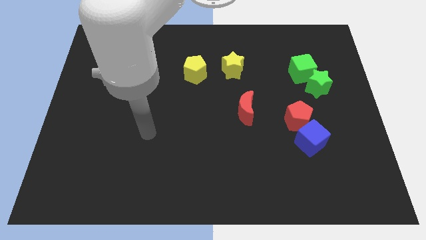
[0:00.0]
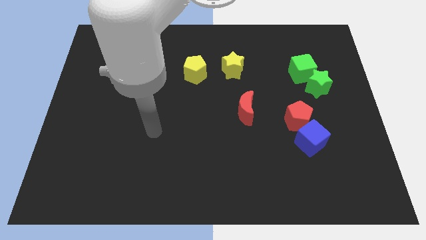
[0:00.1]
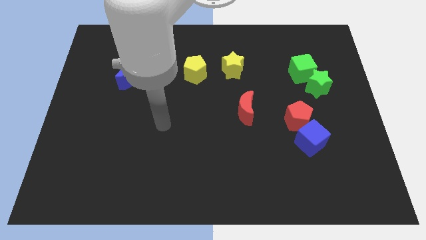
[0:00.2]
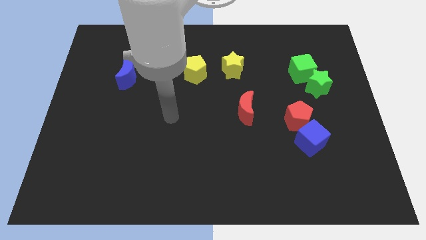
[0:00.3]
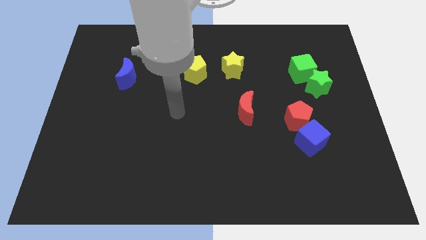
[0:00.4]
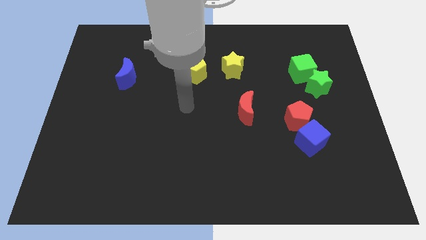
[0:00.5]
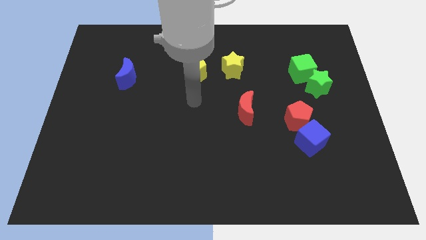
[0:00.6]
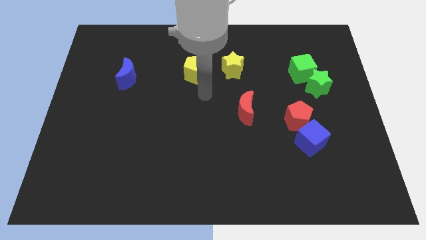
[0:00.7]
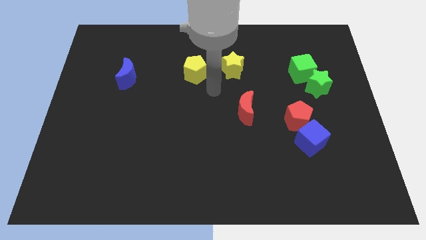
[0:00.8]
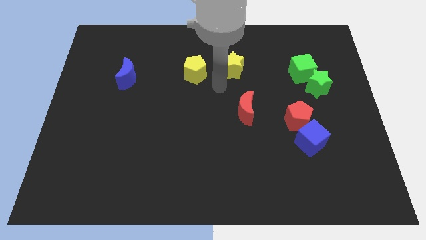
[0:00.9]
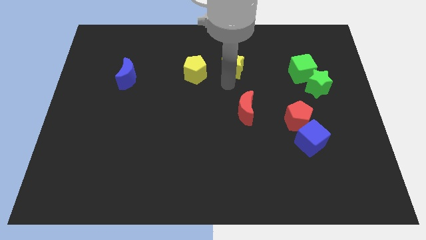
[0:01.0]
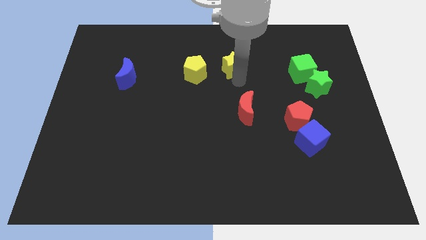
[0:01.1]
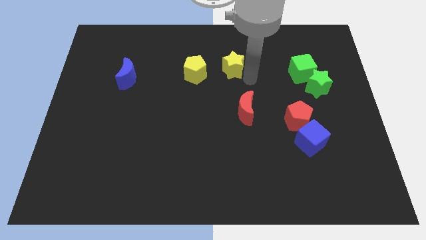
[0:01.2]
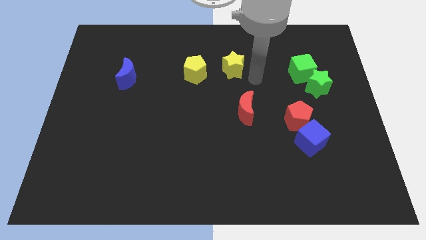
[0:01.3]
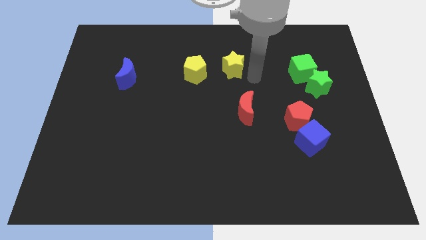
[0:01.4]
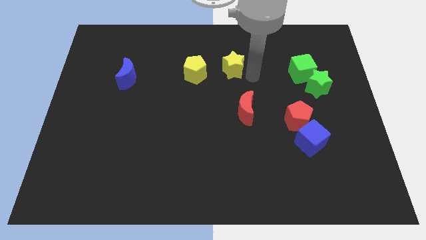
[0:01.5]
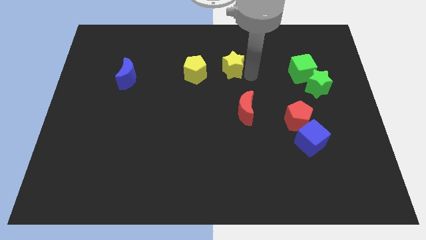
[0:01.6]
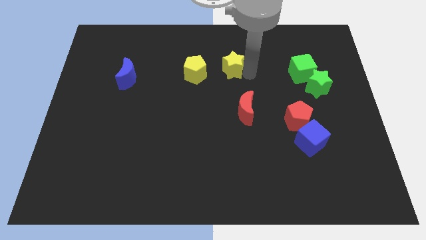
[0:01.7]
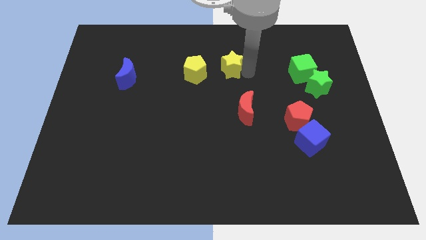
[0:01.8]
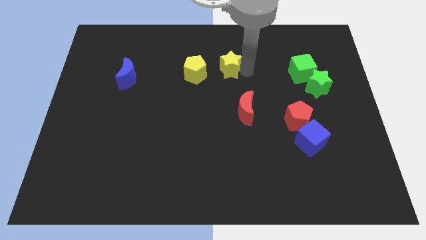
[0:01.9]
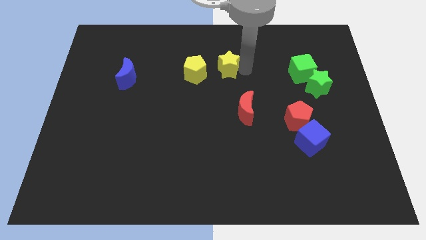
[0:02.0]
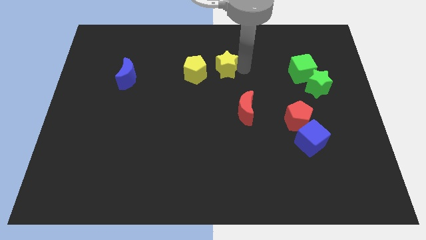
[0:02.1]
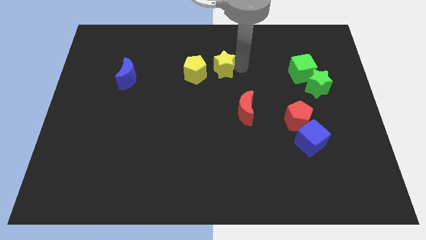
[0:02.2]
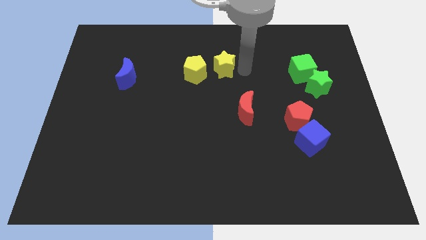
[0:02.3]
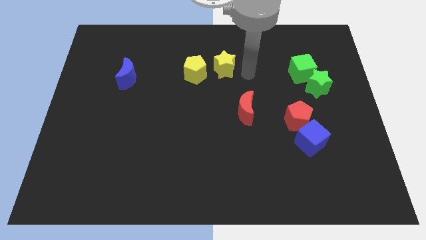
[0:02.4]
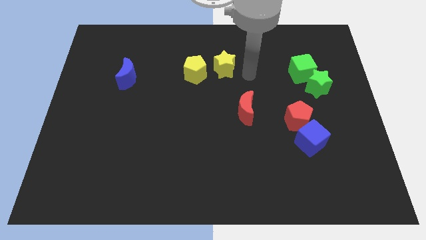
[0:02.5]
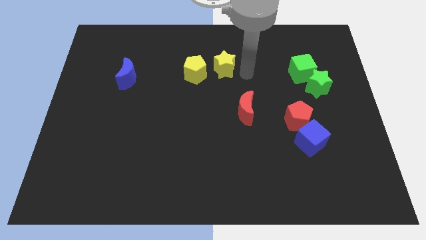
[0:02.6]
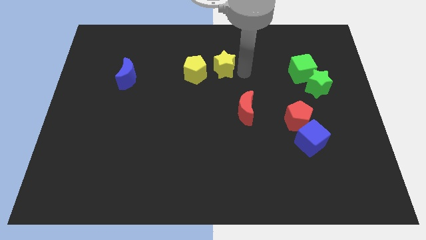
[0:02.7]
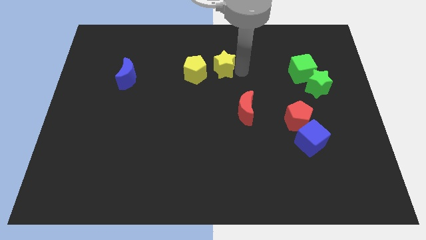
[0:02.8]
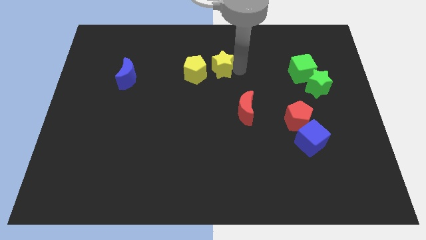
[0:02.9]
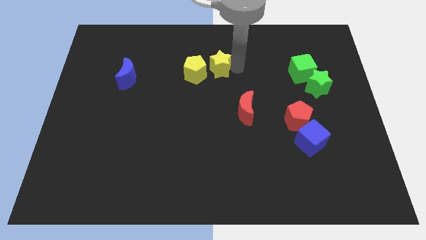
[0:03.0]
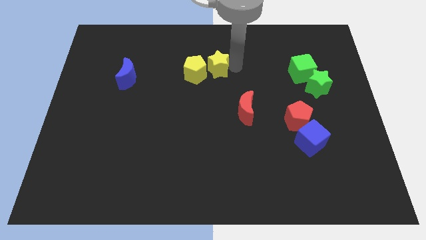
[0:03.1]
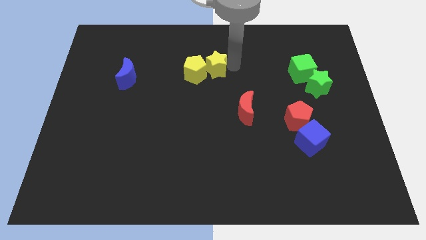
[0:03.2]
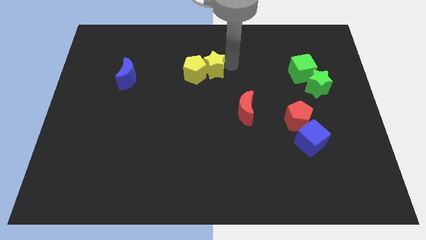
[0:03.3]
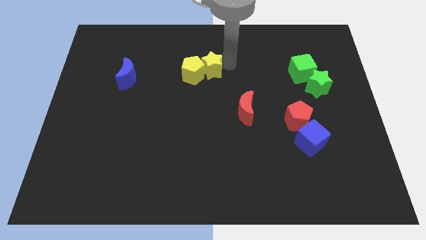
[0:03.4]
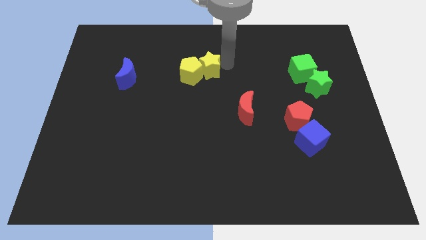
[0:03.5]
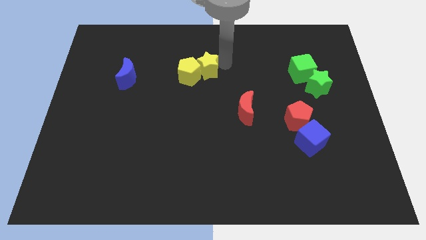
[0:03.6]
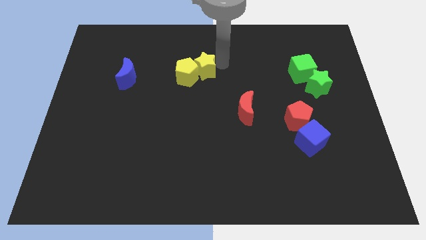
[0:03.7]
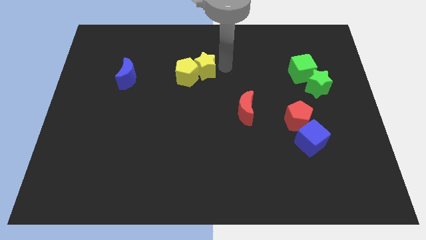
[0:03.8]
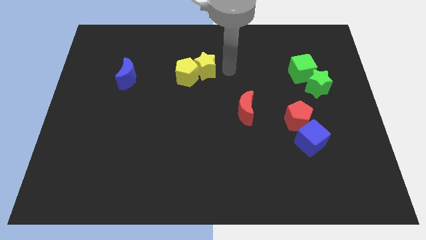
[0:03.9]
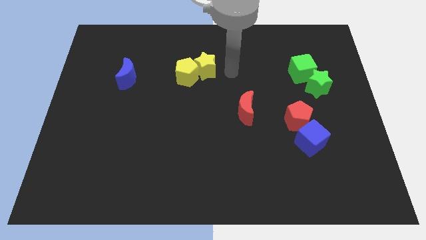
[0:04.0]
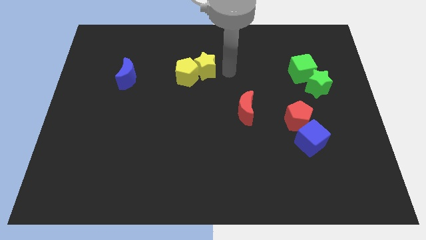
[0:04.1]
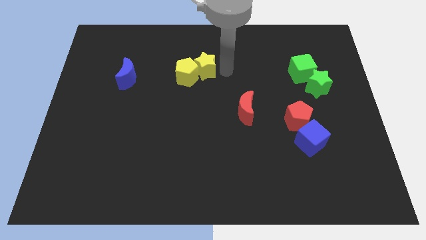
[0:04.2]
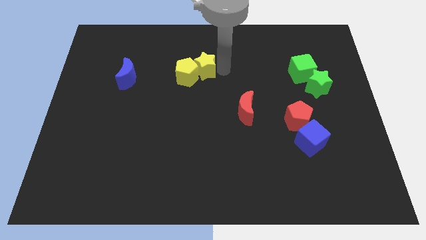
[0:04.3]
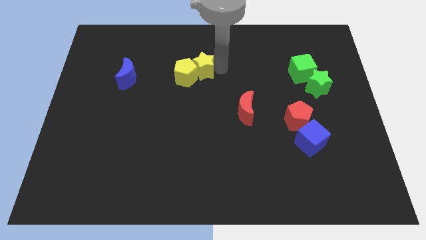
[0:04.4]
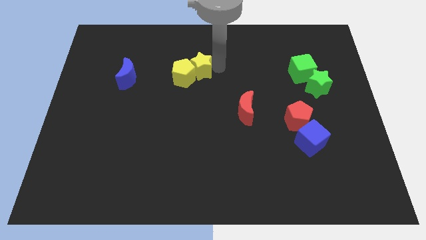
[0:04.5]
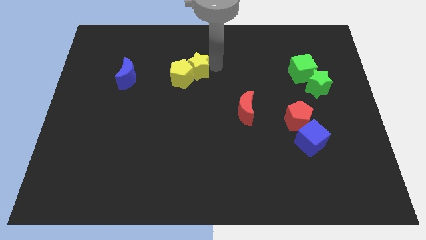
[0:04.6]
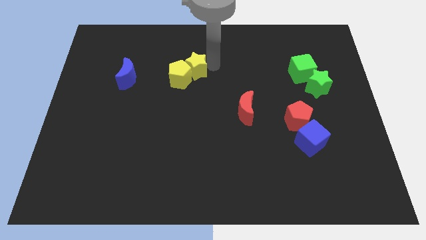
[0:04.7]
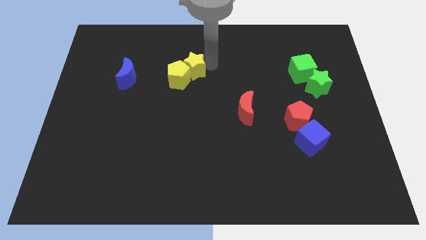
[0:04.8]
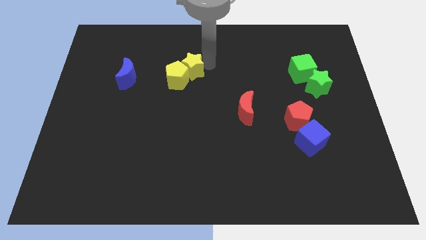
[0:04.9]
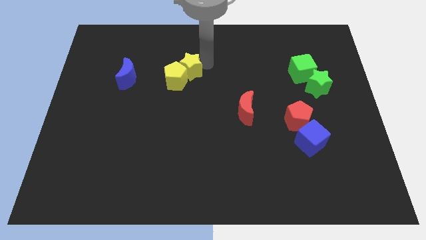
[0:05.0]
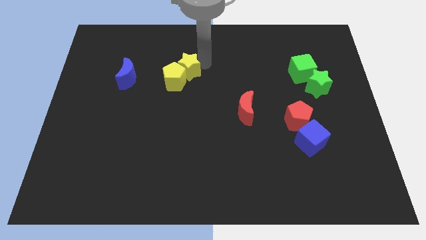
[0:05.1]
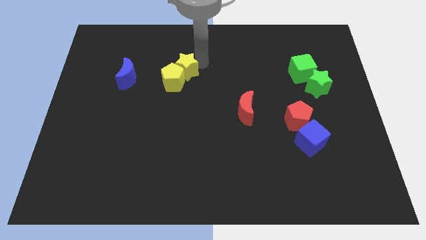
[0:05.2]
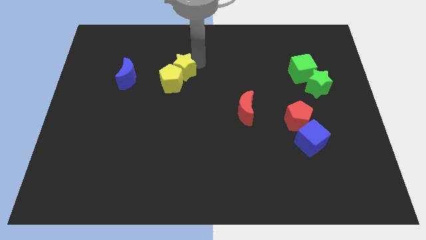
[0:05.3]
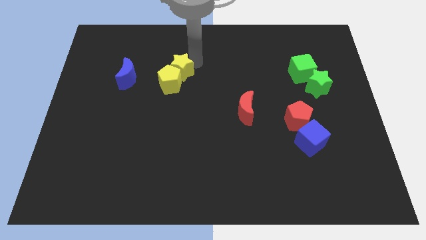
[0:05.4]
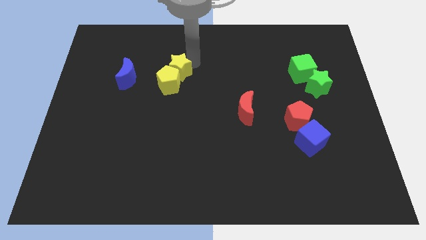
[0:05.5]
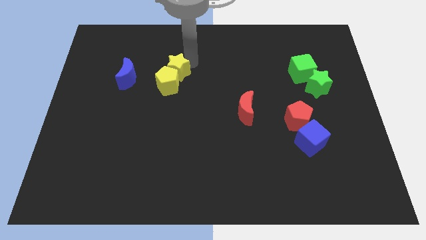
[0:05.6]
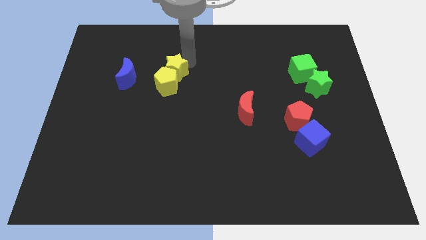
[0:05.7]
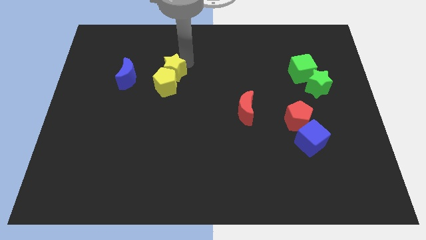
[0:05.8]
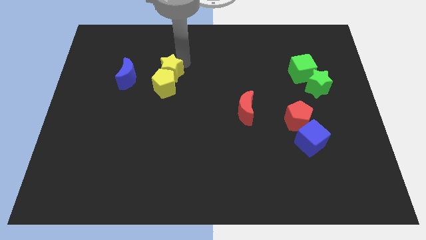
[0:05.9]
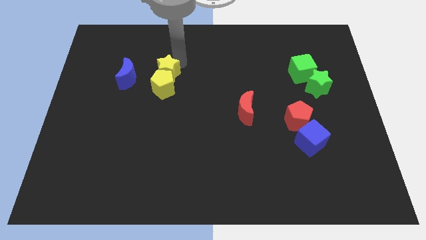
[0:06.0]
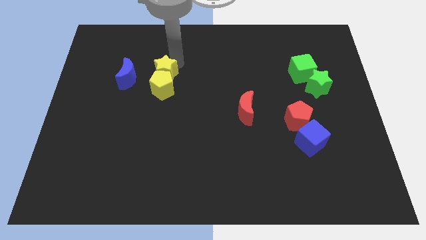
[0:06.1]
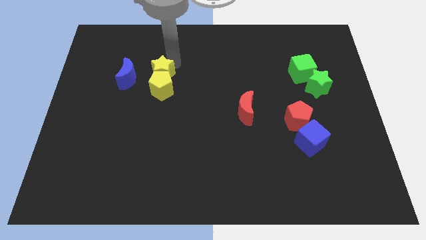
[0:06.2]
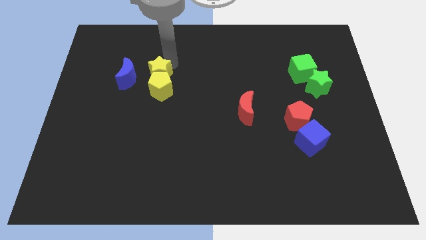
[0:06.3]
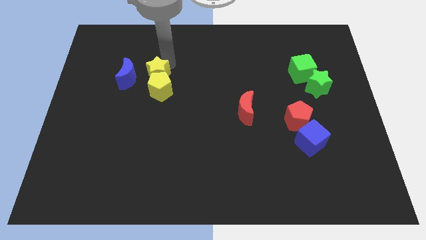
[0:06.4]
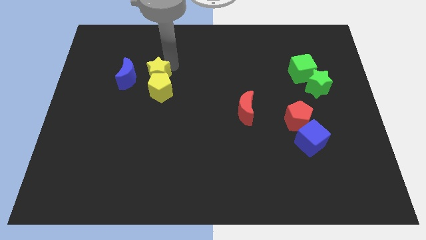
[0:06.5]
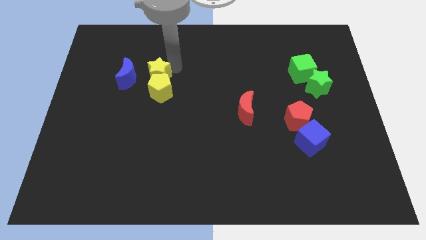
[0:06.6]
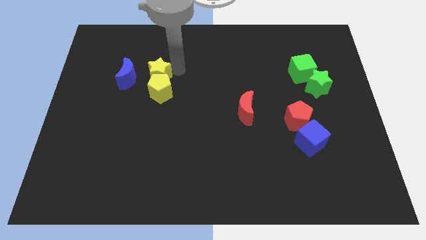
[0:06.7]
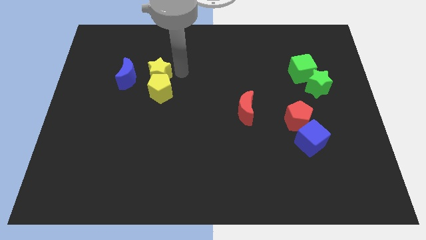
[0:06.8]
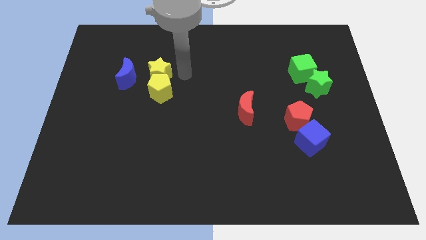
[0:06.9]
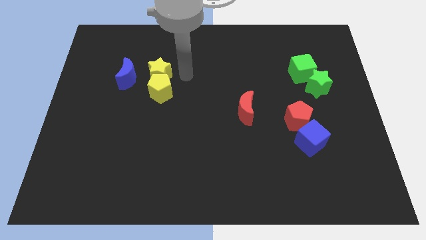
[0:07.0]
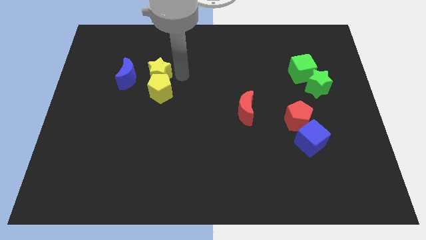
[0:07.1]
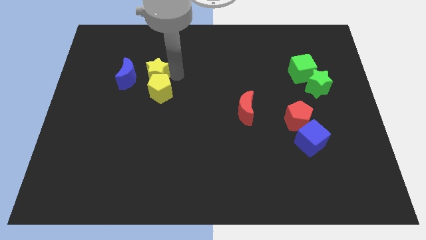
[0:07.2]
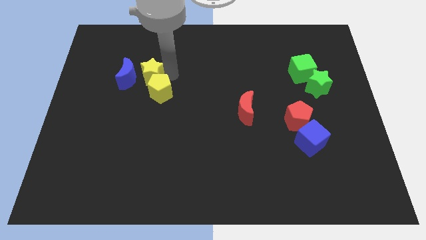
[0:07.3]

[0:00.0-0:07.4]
slide the yellow star next to the blue moon
